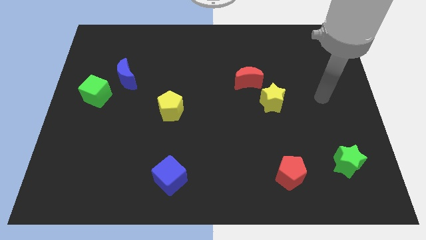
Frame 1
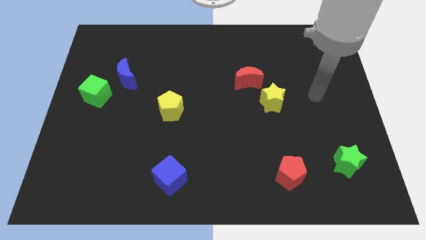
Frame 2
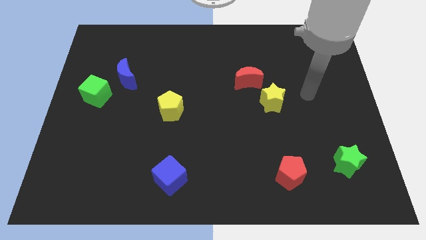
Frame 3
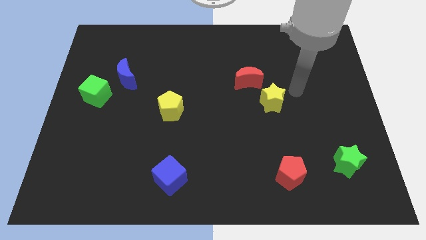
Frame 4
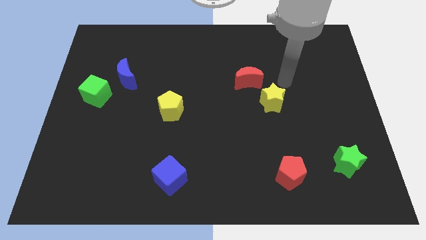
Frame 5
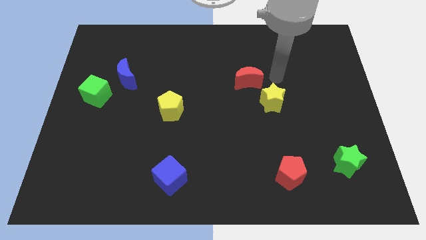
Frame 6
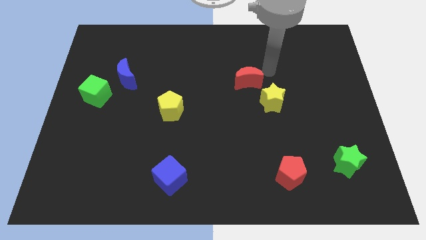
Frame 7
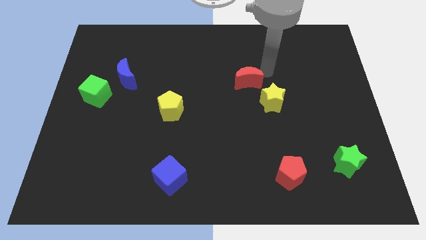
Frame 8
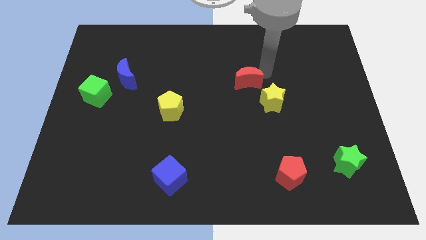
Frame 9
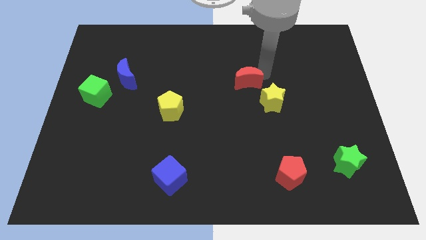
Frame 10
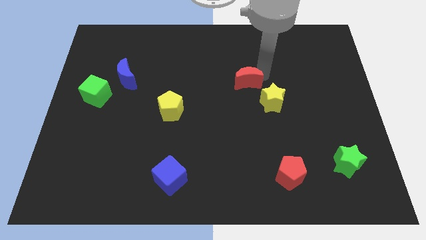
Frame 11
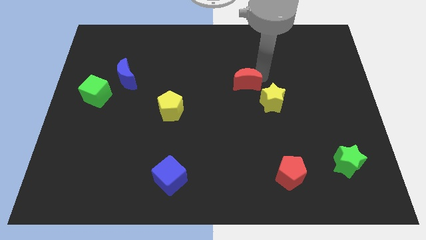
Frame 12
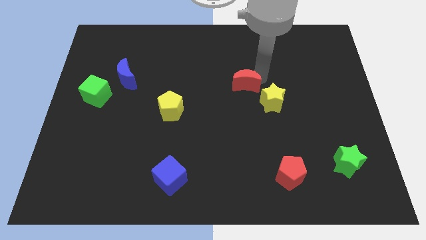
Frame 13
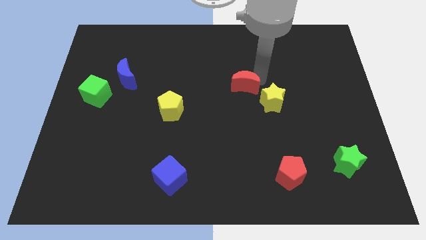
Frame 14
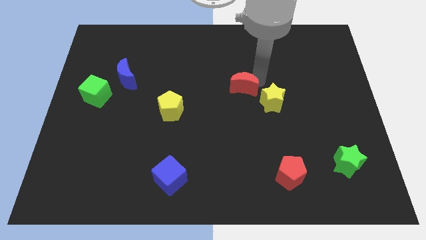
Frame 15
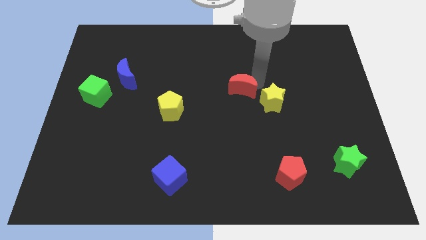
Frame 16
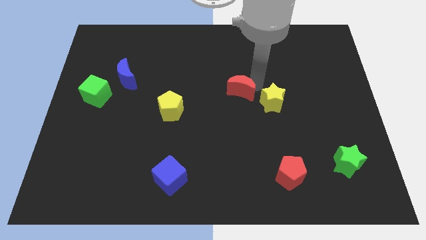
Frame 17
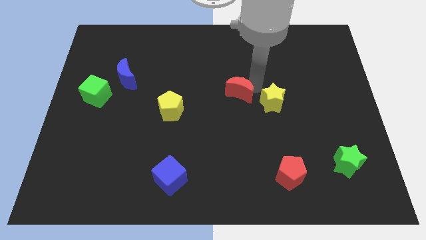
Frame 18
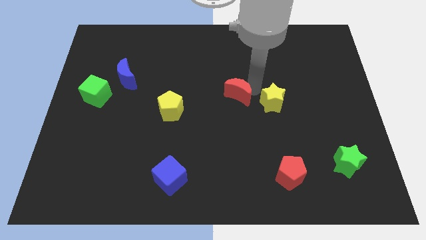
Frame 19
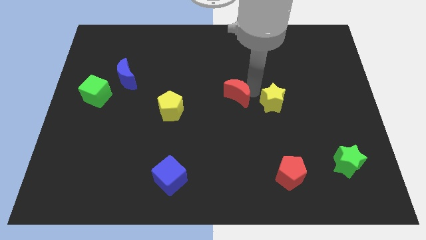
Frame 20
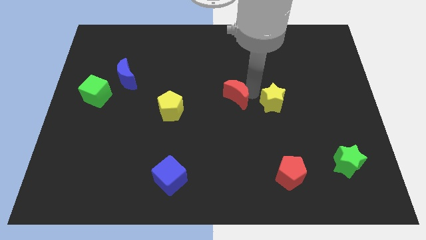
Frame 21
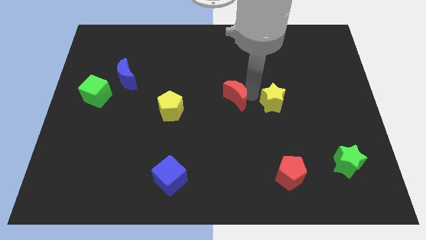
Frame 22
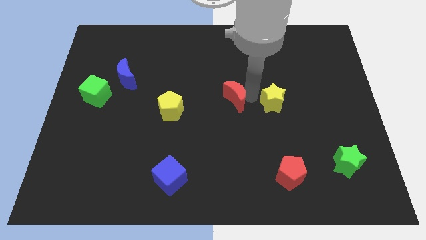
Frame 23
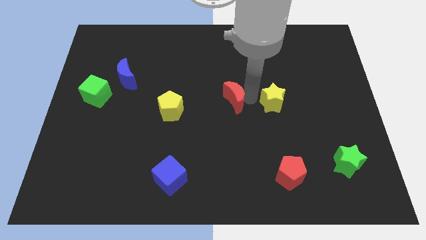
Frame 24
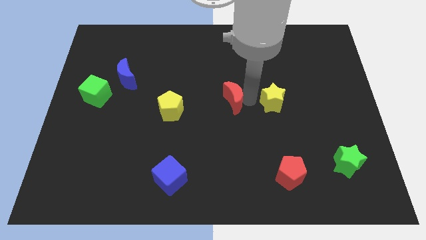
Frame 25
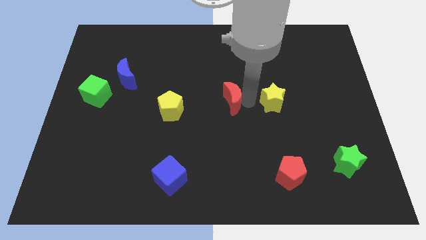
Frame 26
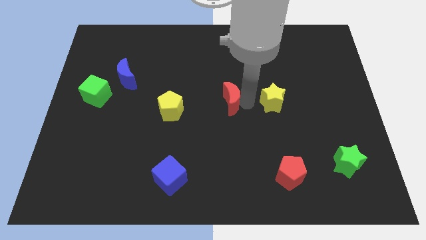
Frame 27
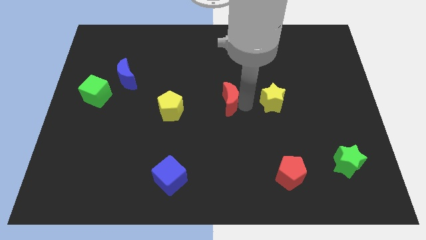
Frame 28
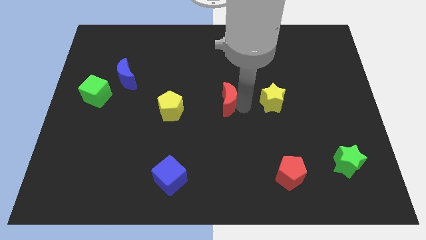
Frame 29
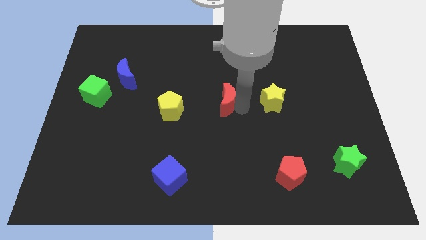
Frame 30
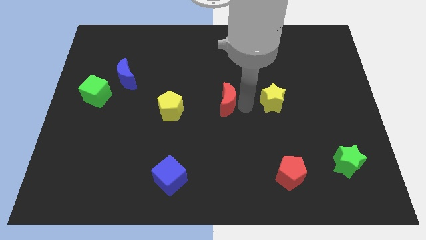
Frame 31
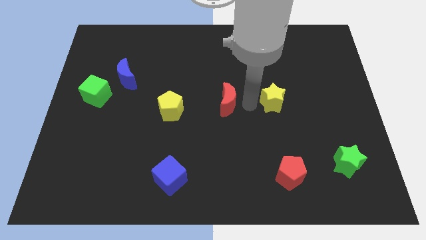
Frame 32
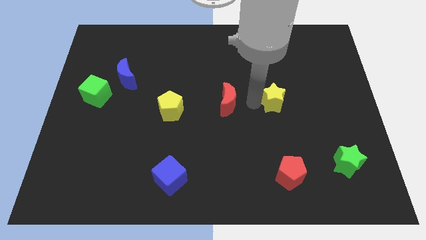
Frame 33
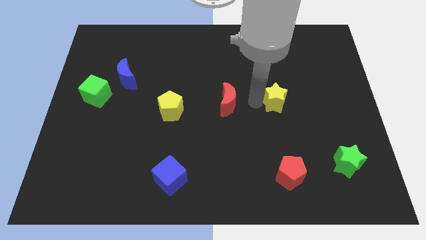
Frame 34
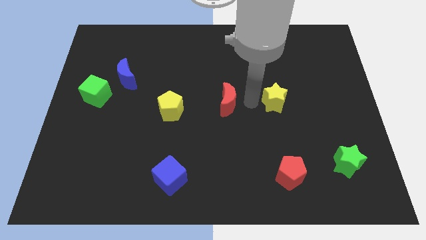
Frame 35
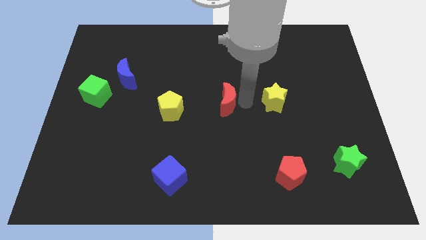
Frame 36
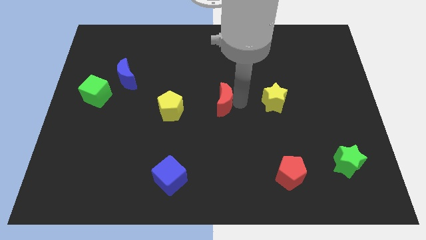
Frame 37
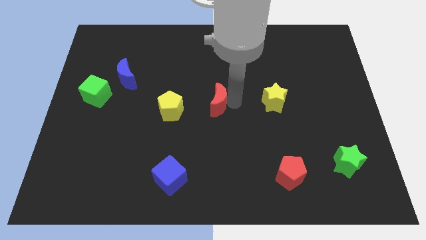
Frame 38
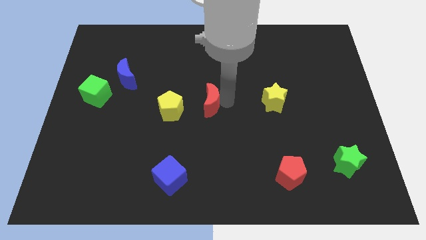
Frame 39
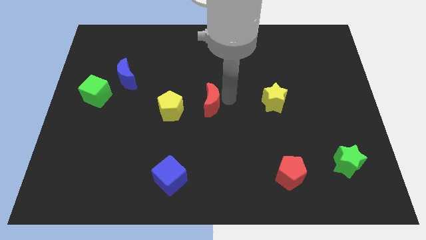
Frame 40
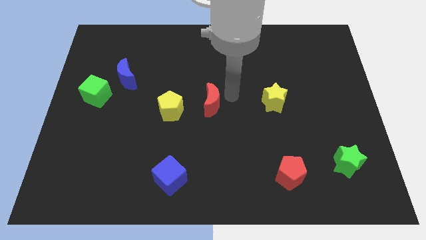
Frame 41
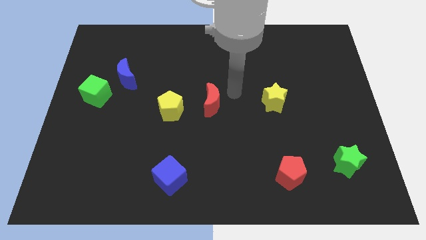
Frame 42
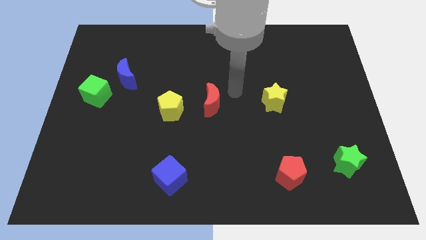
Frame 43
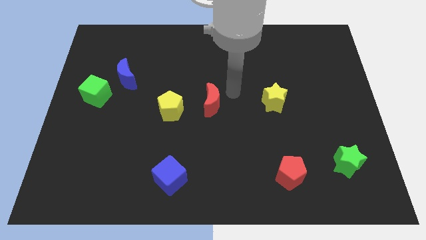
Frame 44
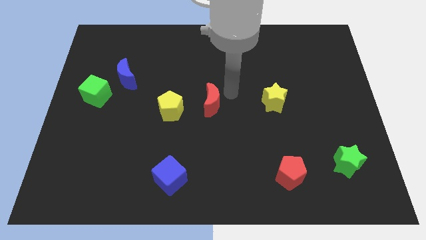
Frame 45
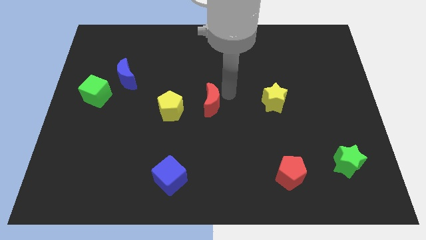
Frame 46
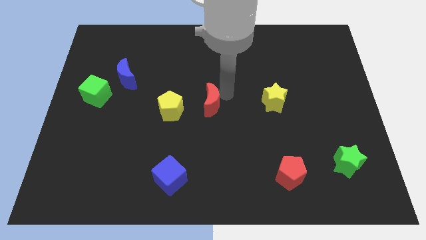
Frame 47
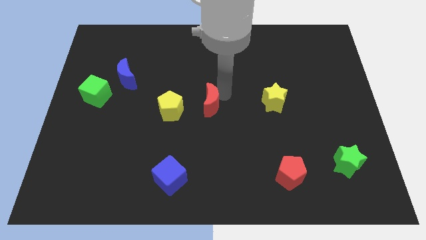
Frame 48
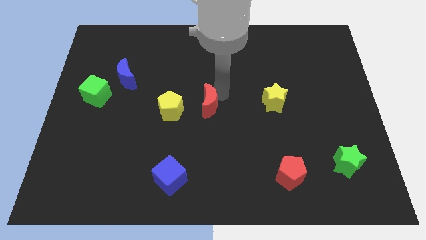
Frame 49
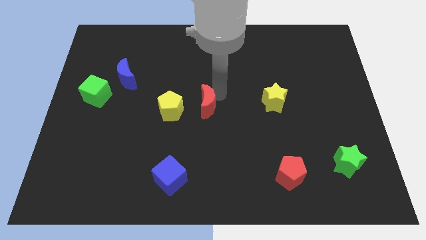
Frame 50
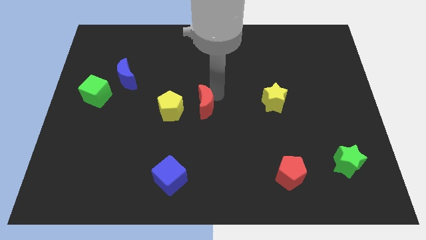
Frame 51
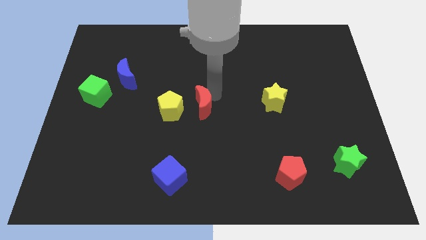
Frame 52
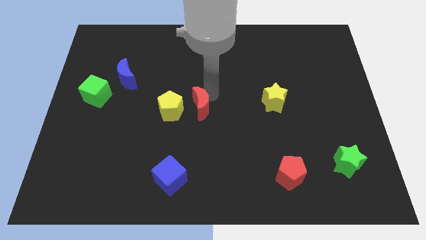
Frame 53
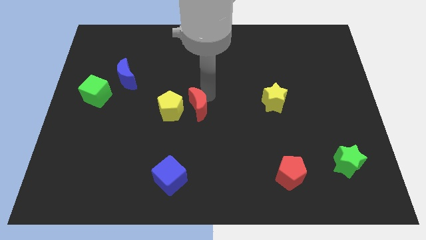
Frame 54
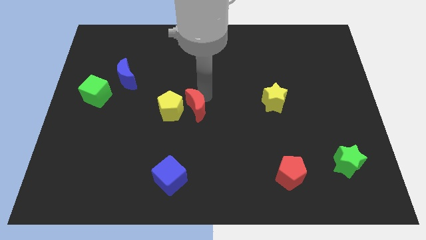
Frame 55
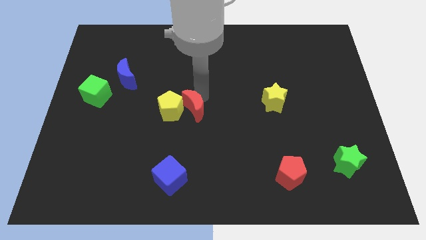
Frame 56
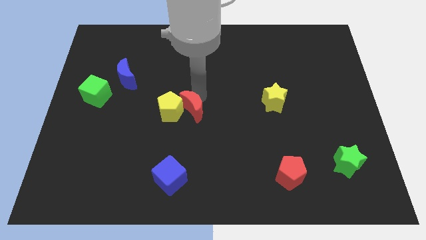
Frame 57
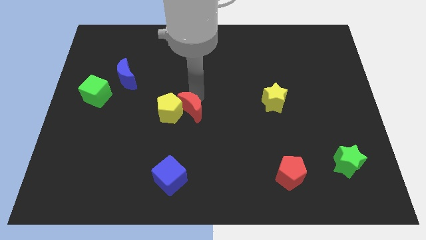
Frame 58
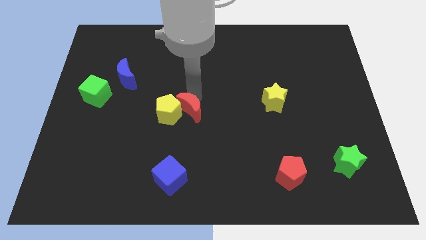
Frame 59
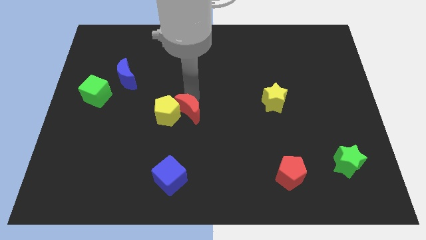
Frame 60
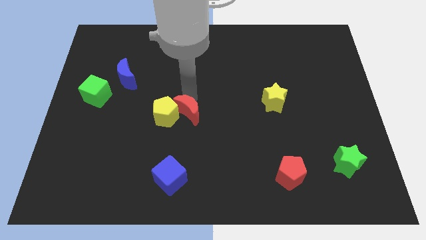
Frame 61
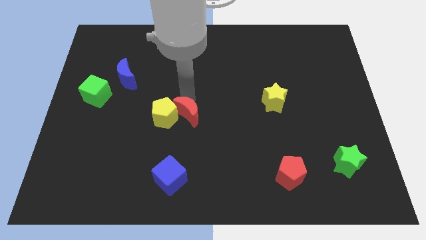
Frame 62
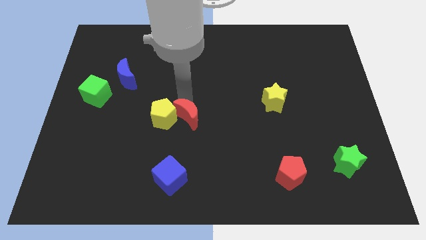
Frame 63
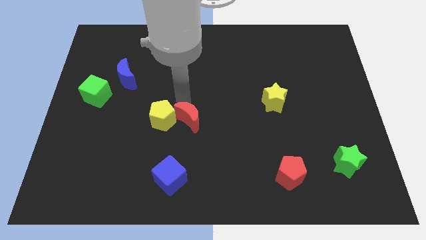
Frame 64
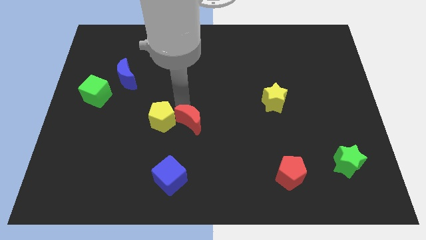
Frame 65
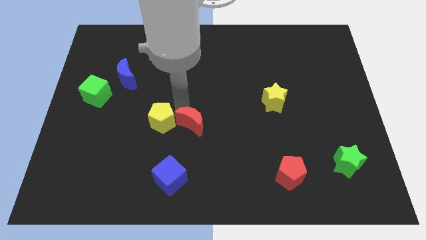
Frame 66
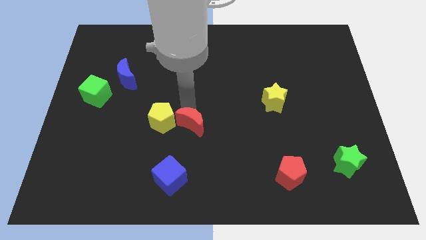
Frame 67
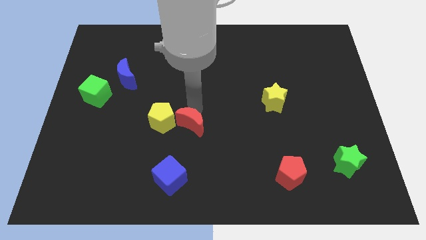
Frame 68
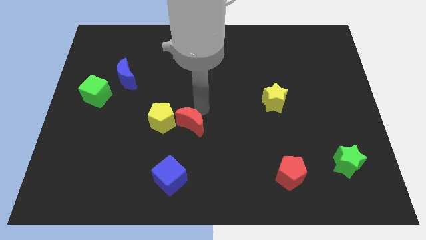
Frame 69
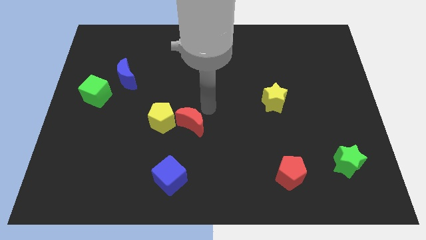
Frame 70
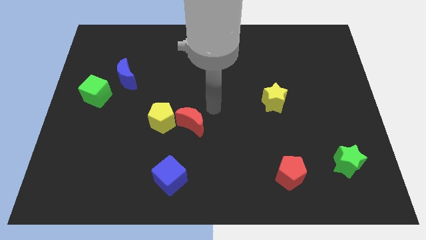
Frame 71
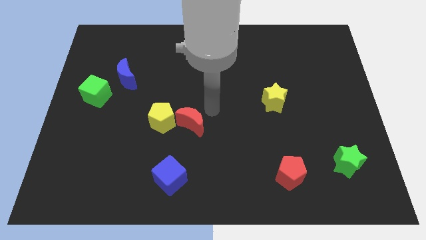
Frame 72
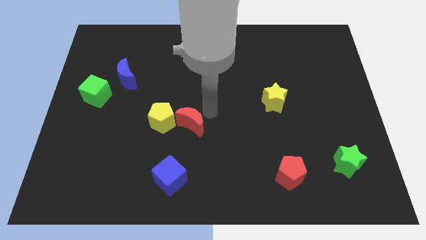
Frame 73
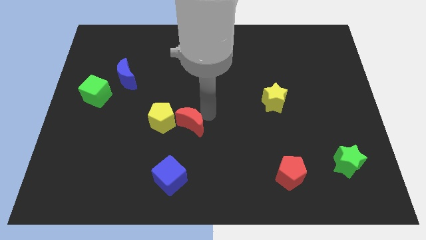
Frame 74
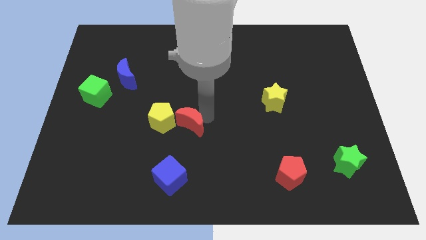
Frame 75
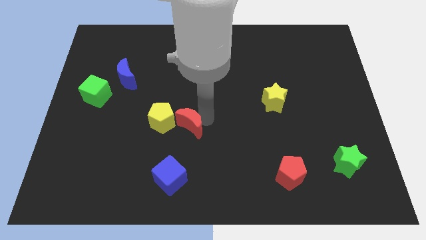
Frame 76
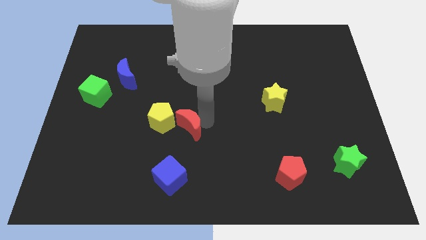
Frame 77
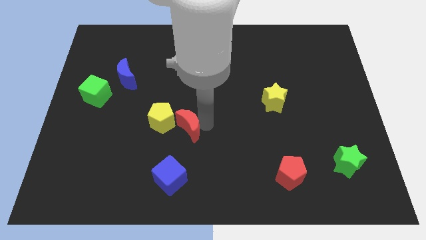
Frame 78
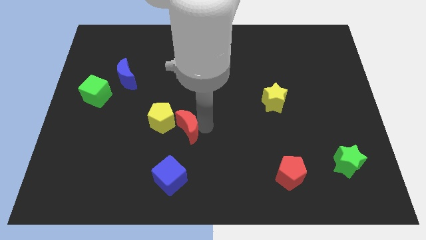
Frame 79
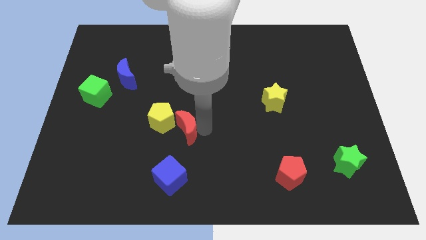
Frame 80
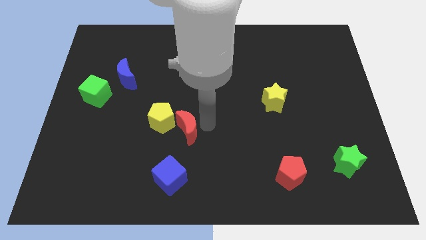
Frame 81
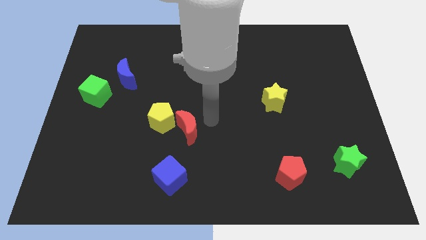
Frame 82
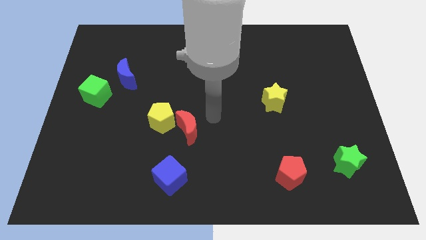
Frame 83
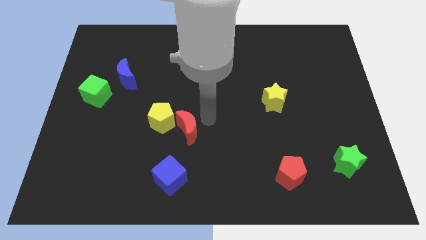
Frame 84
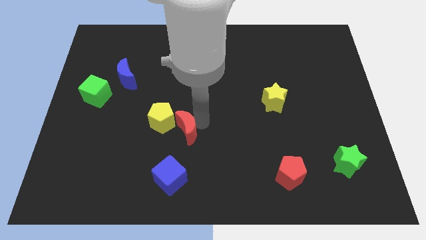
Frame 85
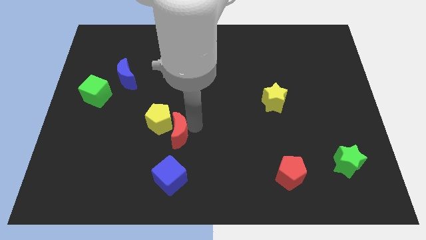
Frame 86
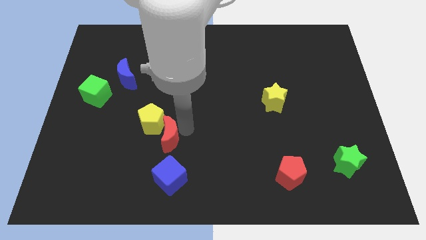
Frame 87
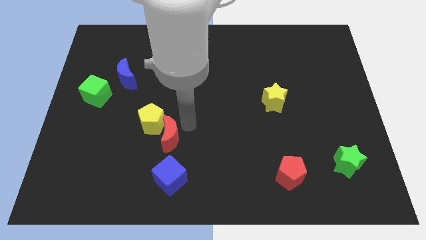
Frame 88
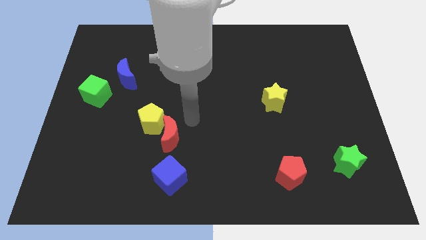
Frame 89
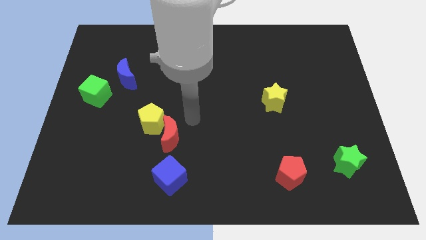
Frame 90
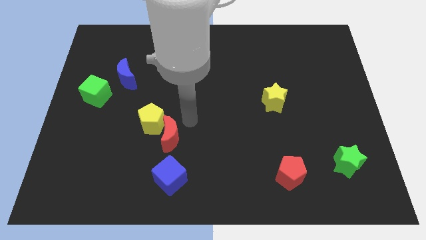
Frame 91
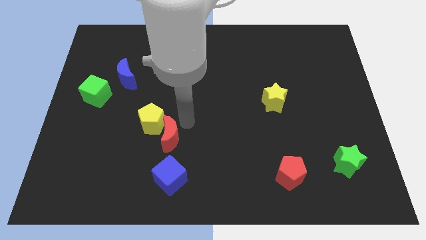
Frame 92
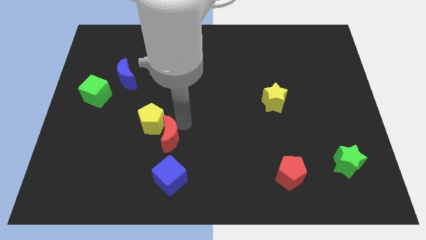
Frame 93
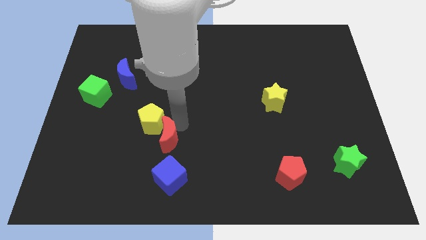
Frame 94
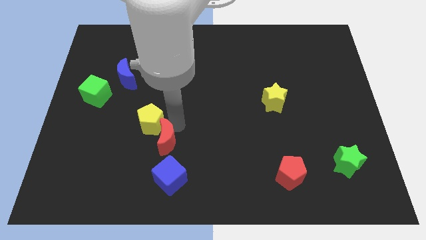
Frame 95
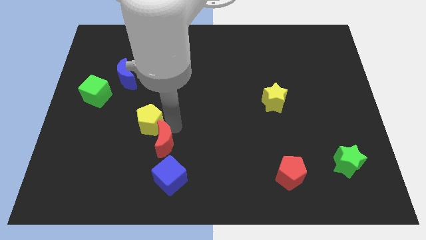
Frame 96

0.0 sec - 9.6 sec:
push the red moon diagonally up and to the left of the blue cube
